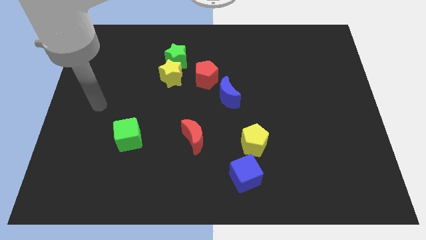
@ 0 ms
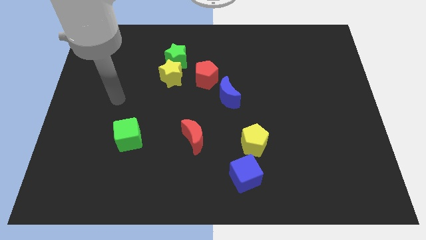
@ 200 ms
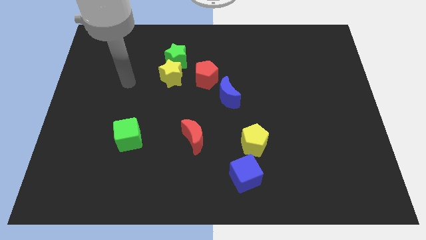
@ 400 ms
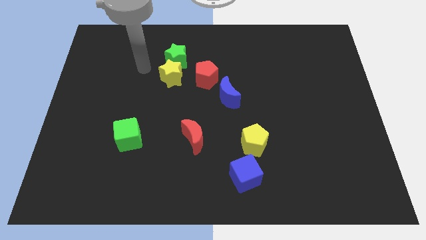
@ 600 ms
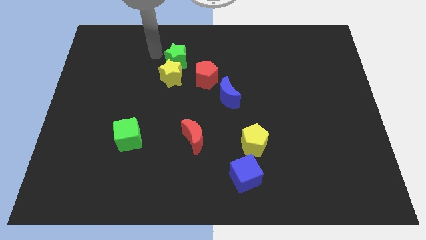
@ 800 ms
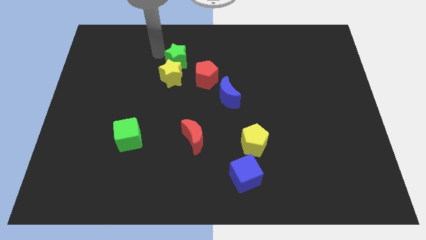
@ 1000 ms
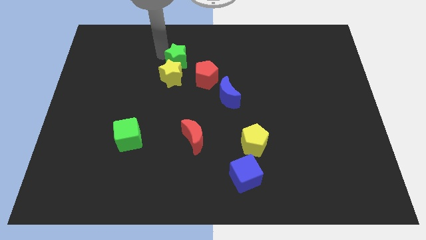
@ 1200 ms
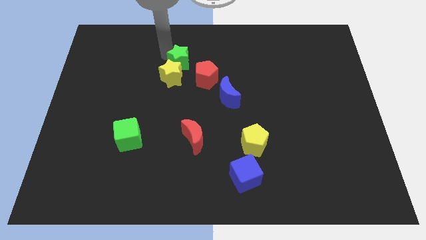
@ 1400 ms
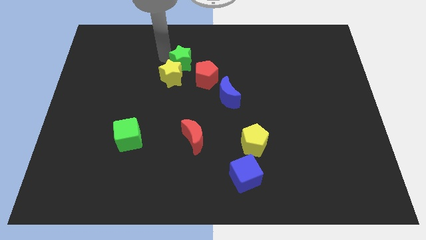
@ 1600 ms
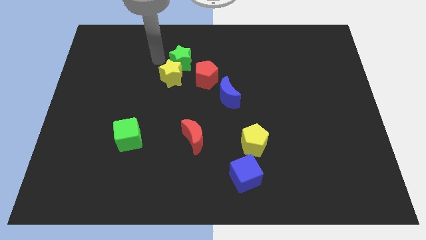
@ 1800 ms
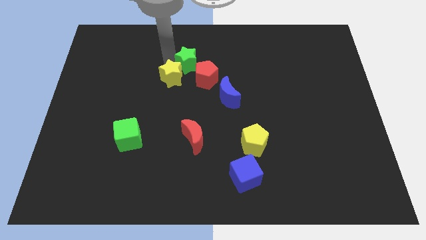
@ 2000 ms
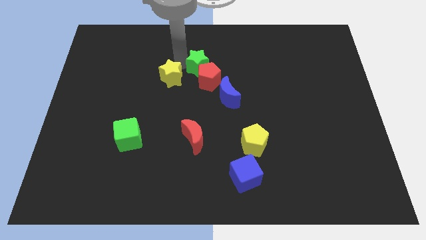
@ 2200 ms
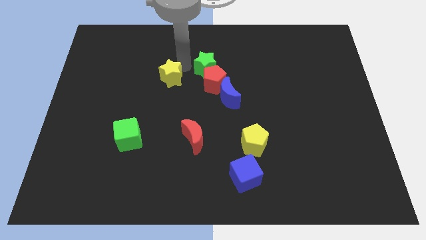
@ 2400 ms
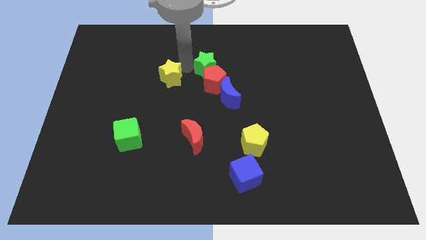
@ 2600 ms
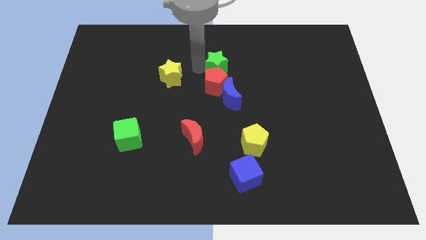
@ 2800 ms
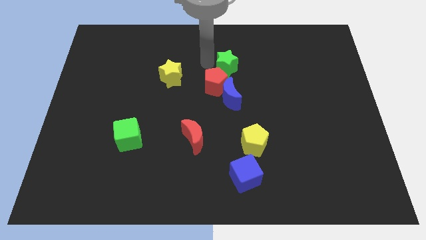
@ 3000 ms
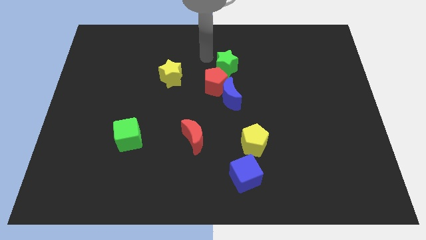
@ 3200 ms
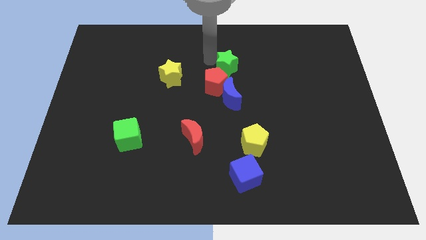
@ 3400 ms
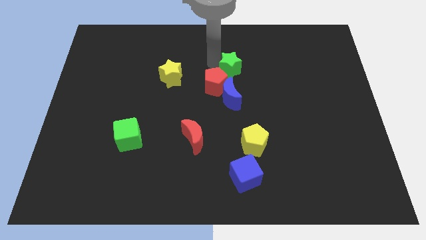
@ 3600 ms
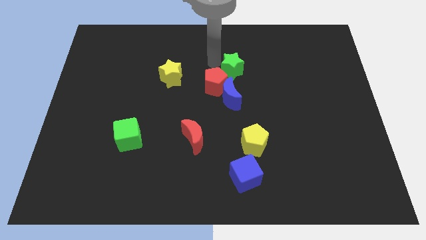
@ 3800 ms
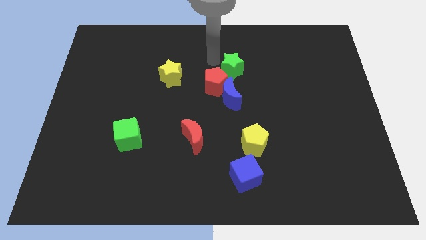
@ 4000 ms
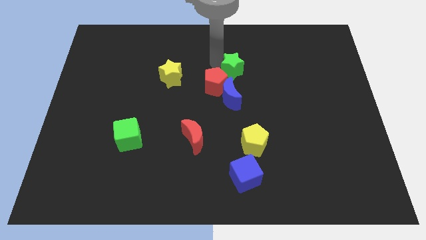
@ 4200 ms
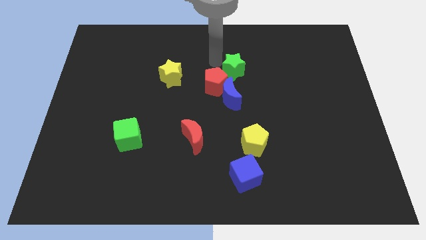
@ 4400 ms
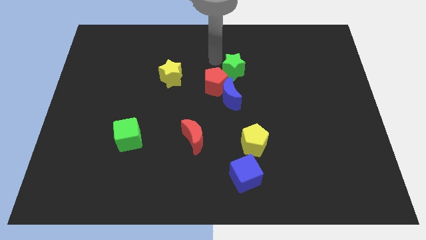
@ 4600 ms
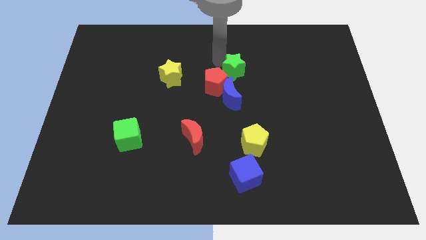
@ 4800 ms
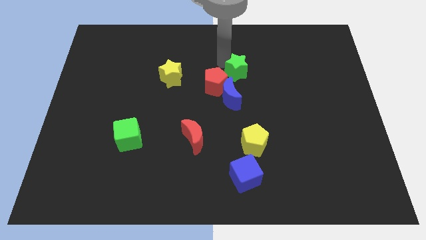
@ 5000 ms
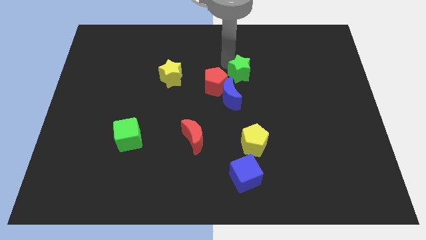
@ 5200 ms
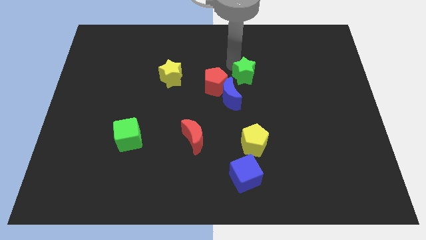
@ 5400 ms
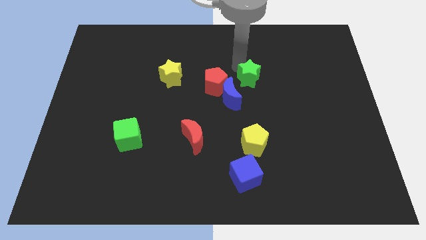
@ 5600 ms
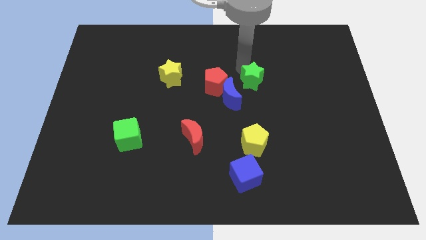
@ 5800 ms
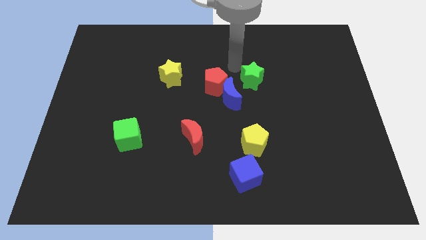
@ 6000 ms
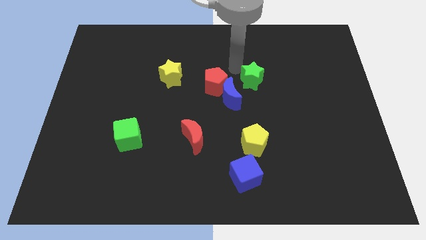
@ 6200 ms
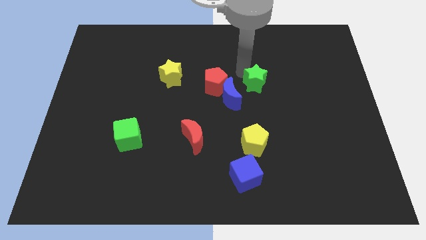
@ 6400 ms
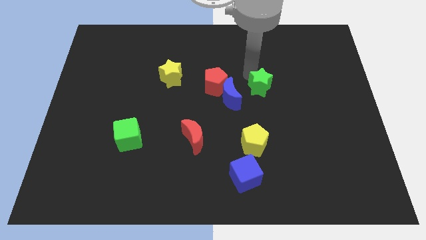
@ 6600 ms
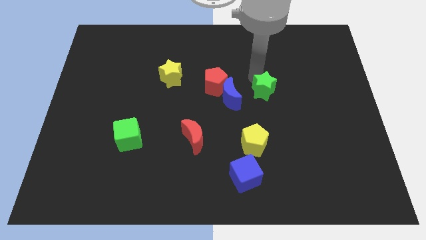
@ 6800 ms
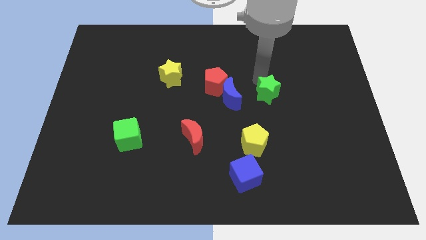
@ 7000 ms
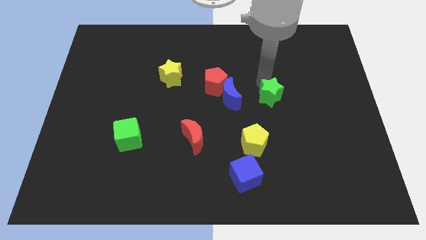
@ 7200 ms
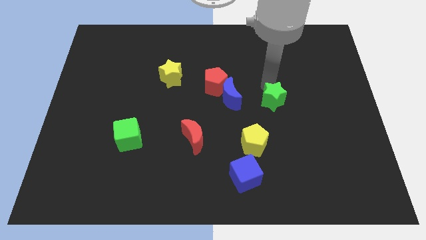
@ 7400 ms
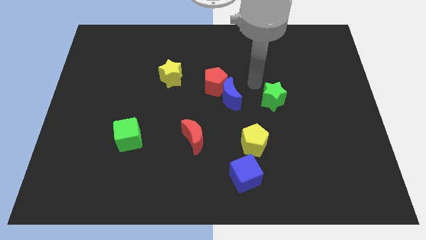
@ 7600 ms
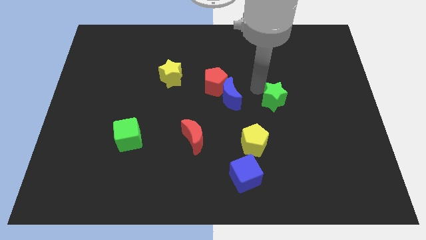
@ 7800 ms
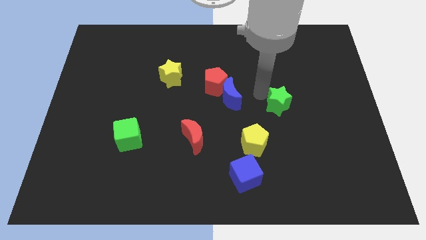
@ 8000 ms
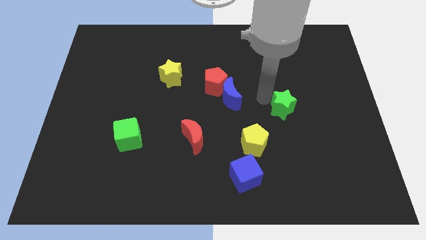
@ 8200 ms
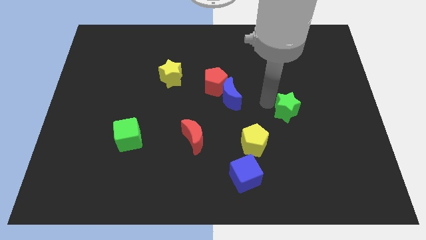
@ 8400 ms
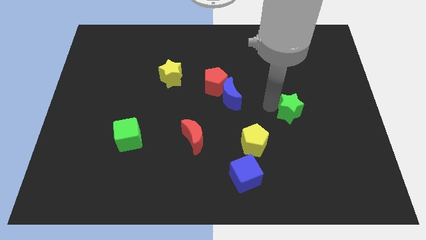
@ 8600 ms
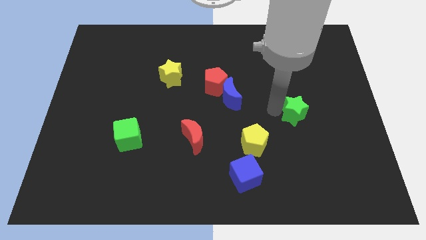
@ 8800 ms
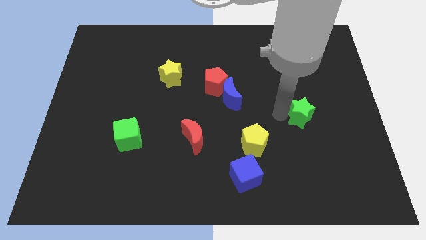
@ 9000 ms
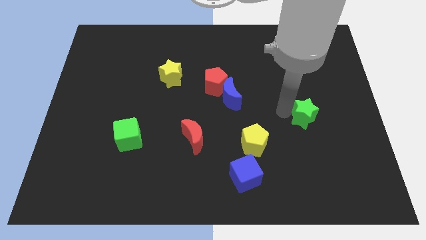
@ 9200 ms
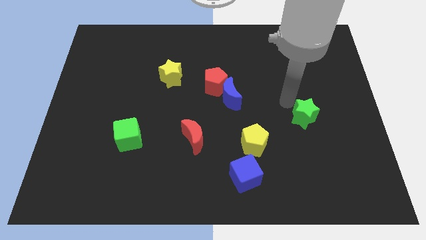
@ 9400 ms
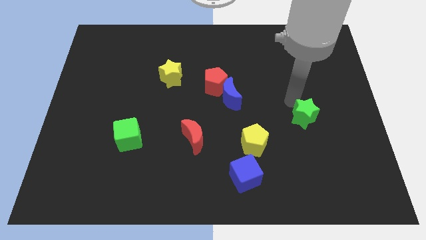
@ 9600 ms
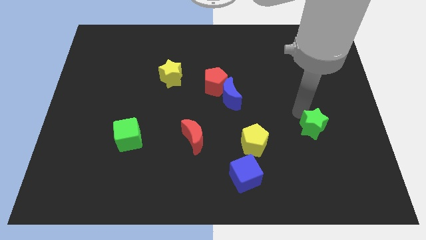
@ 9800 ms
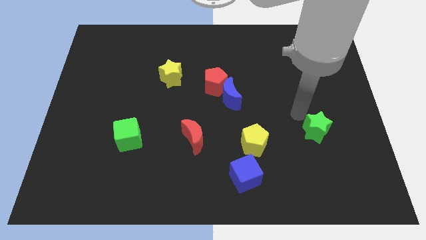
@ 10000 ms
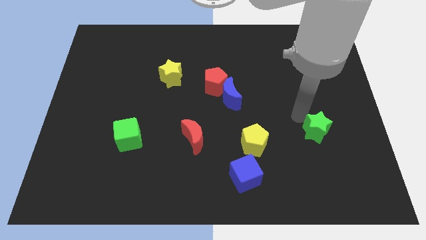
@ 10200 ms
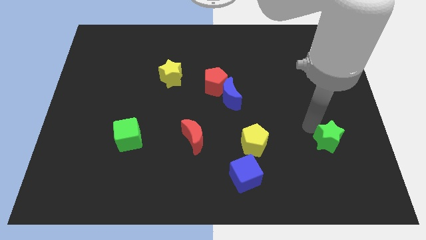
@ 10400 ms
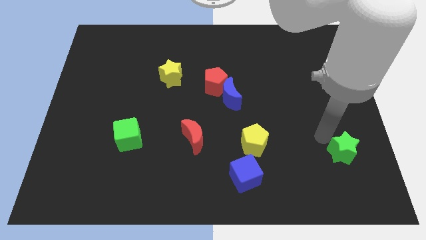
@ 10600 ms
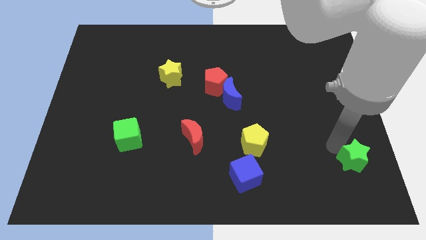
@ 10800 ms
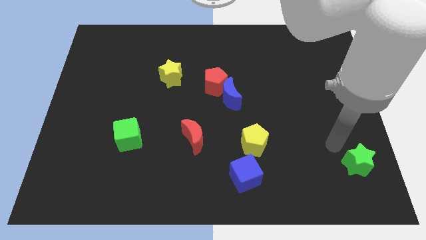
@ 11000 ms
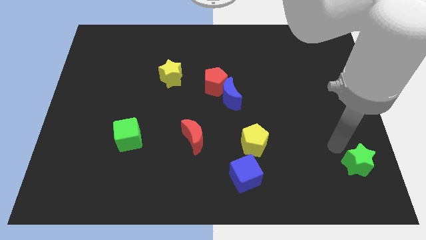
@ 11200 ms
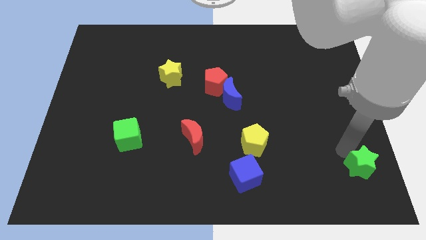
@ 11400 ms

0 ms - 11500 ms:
slide the green star to the bottom right
